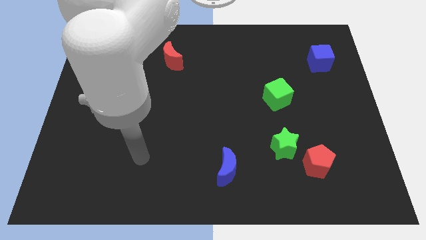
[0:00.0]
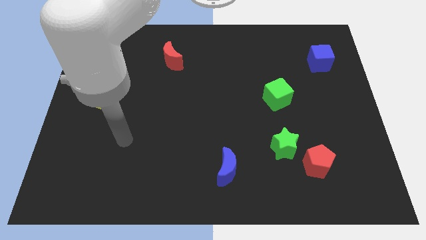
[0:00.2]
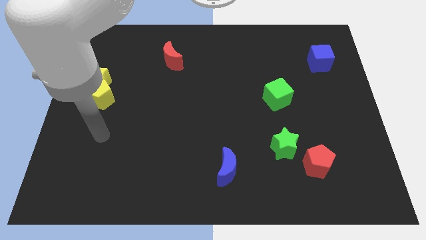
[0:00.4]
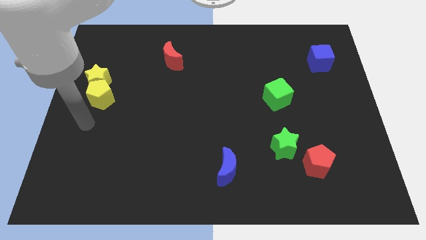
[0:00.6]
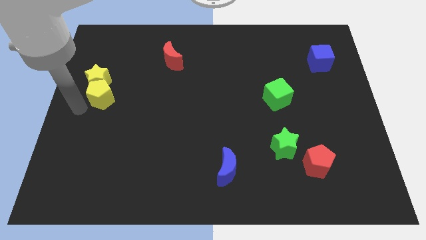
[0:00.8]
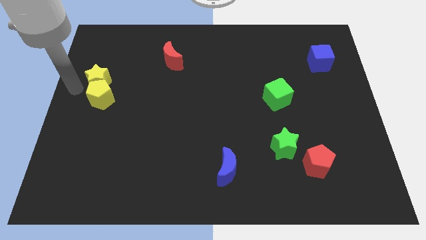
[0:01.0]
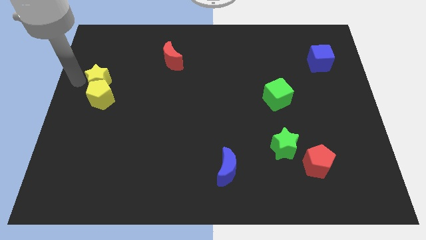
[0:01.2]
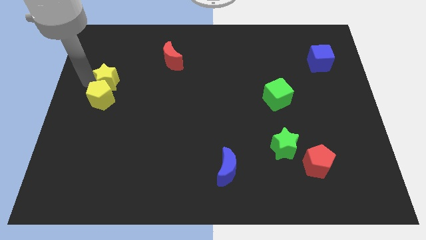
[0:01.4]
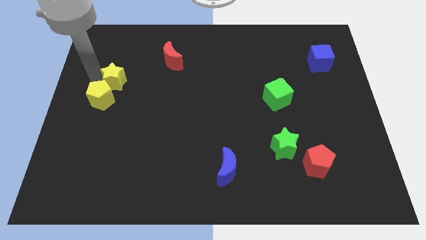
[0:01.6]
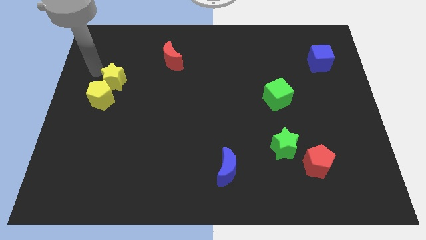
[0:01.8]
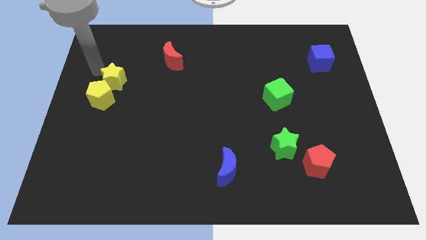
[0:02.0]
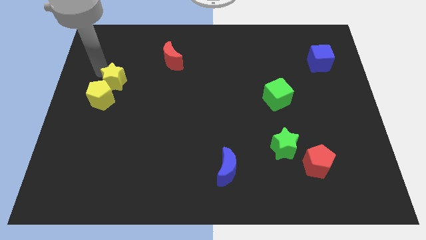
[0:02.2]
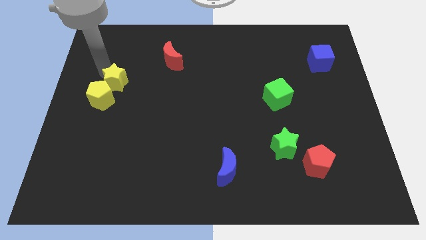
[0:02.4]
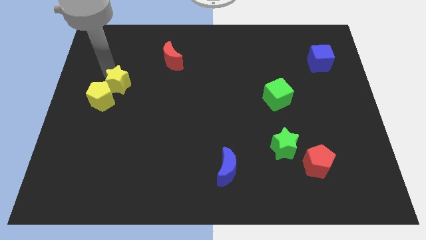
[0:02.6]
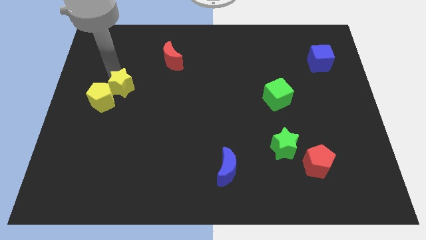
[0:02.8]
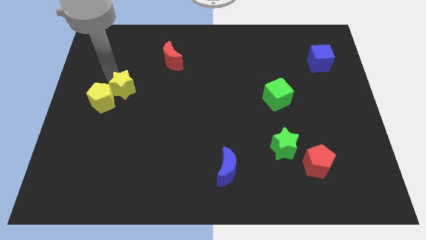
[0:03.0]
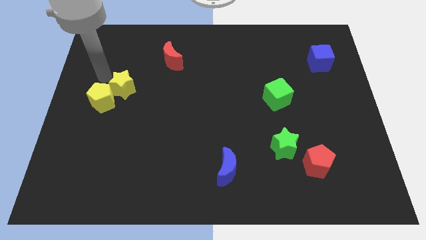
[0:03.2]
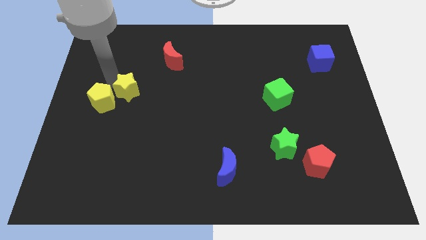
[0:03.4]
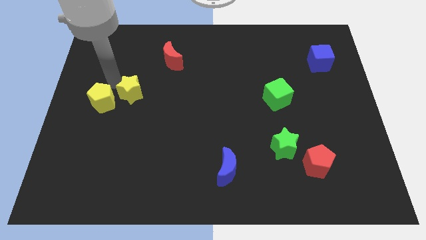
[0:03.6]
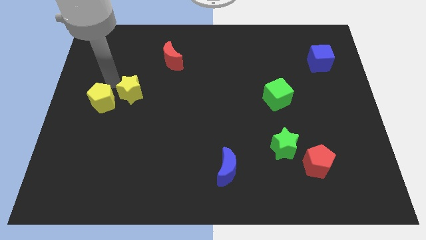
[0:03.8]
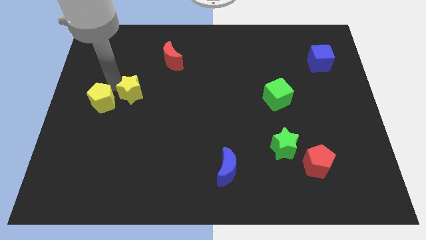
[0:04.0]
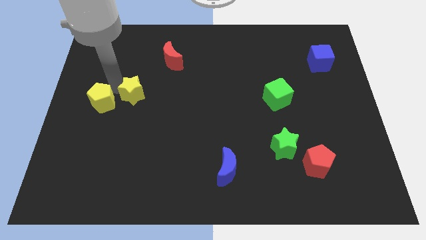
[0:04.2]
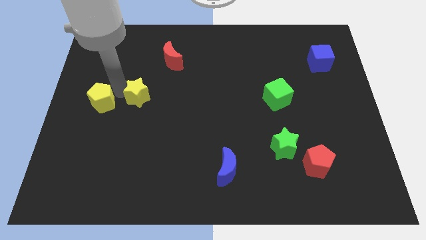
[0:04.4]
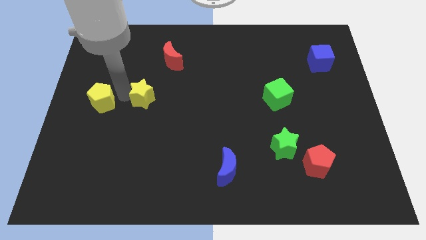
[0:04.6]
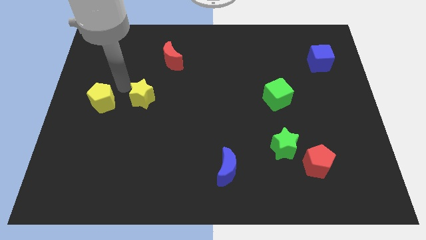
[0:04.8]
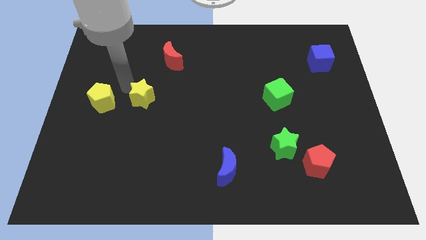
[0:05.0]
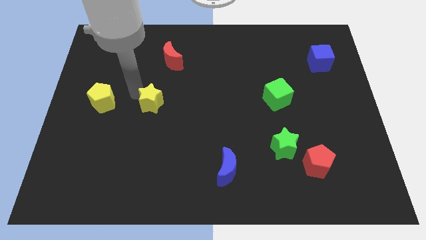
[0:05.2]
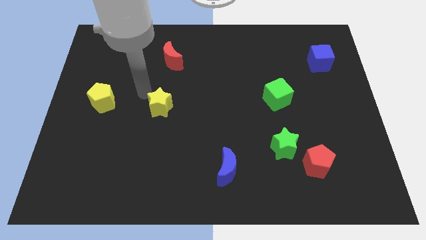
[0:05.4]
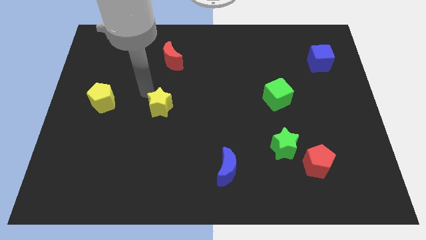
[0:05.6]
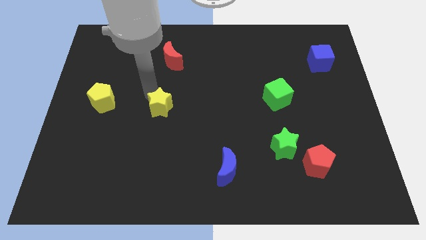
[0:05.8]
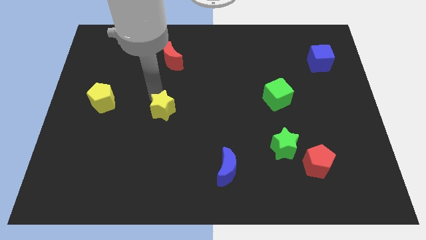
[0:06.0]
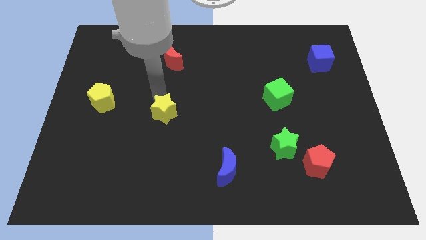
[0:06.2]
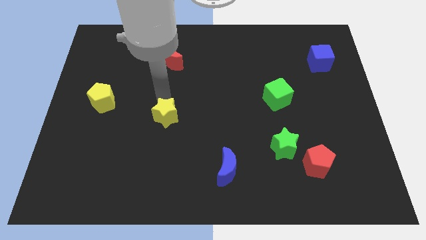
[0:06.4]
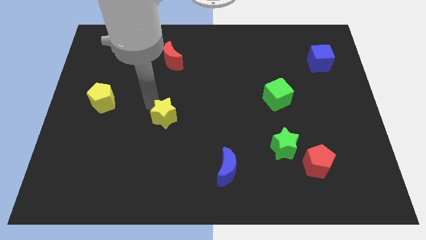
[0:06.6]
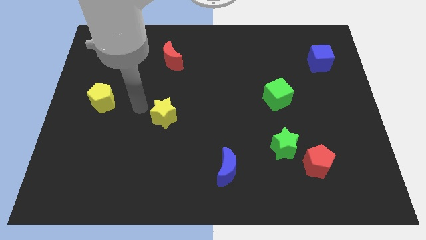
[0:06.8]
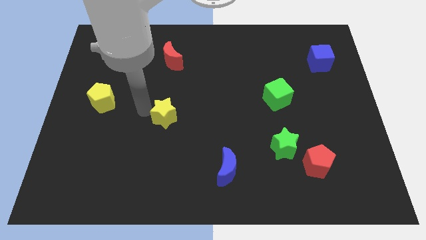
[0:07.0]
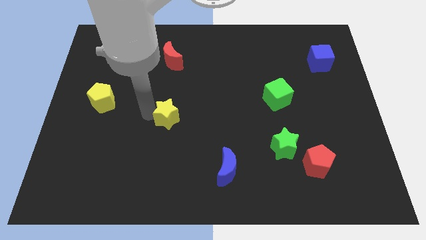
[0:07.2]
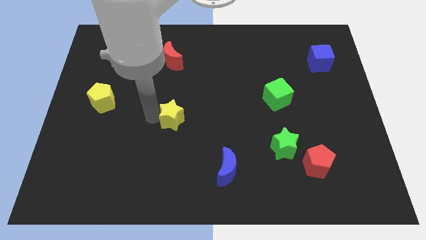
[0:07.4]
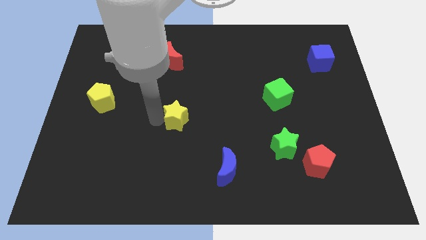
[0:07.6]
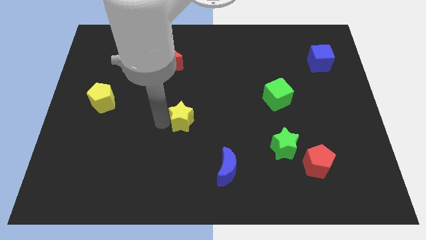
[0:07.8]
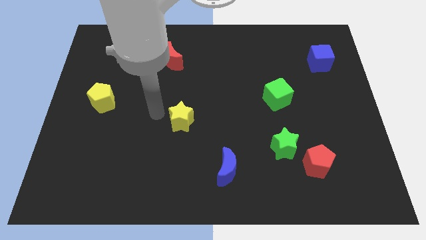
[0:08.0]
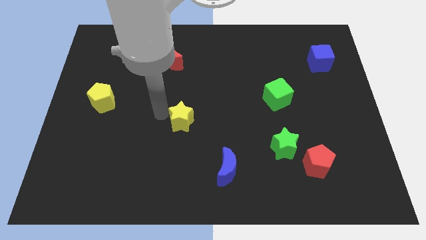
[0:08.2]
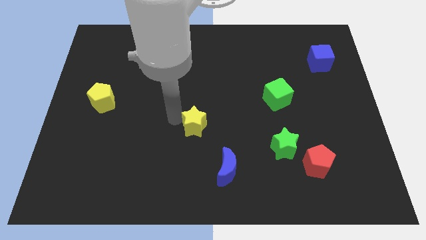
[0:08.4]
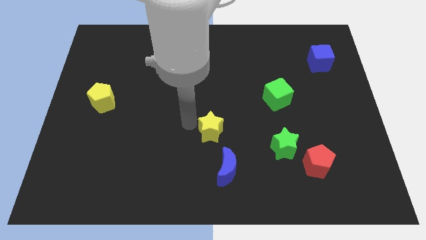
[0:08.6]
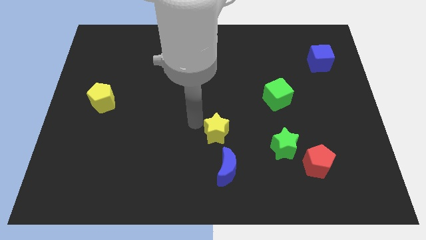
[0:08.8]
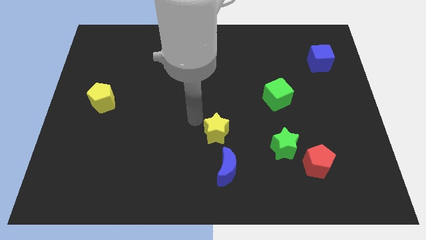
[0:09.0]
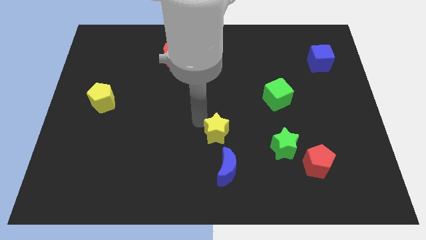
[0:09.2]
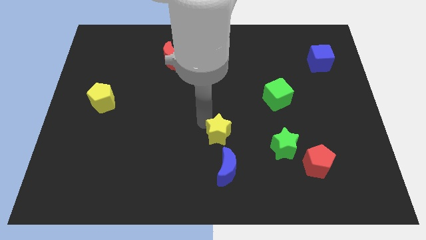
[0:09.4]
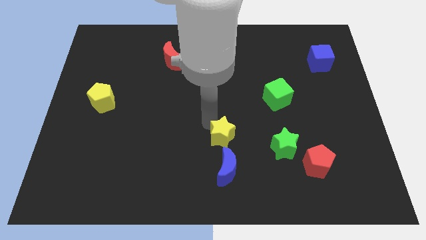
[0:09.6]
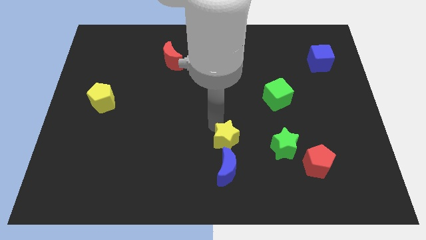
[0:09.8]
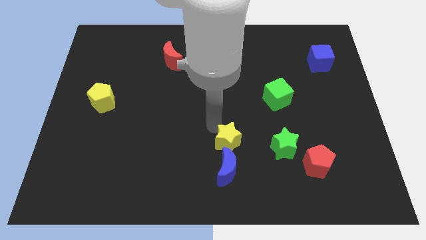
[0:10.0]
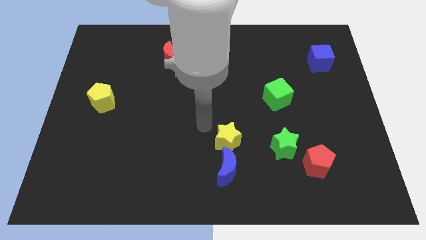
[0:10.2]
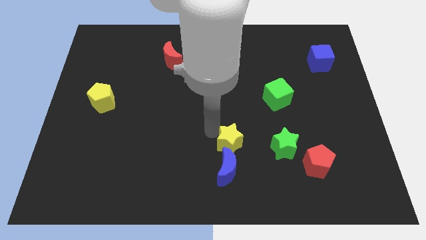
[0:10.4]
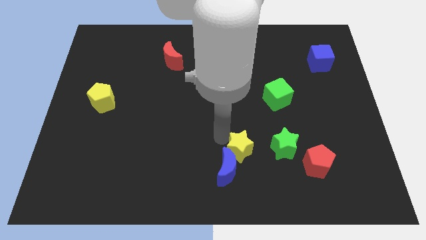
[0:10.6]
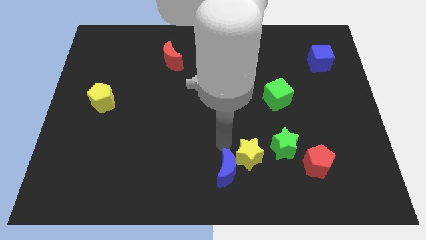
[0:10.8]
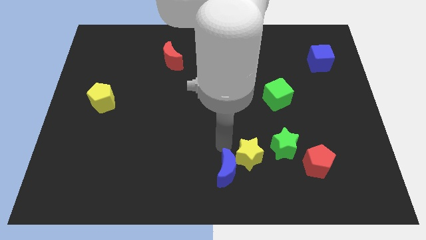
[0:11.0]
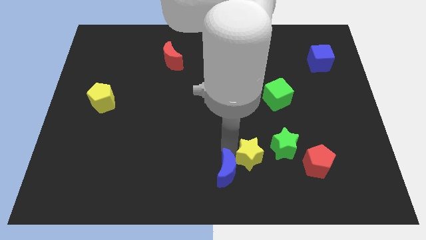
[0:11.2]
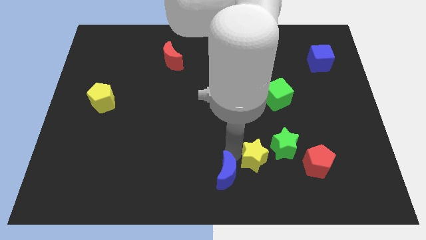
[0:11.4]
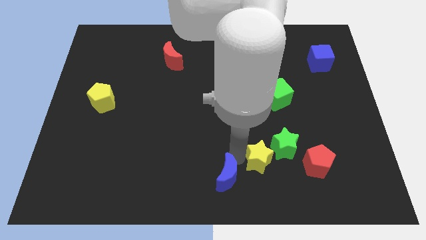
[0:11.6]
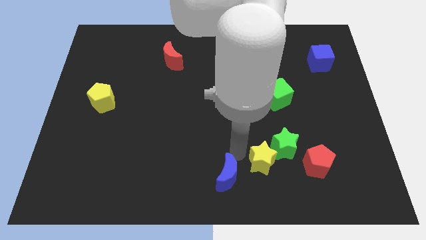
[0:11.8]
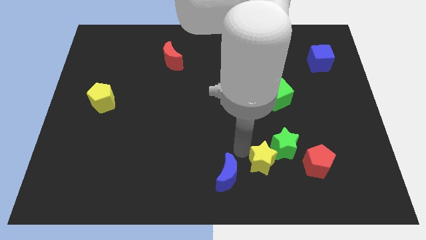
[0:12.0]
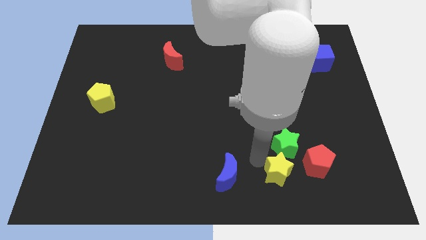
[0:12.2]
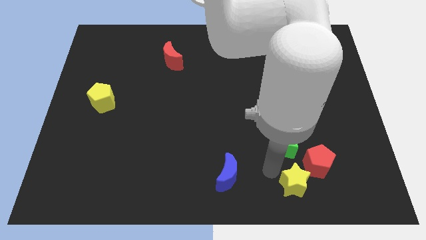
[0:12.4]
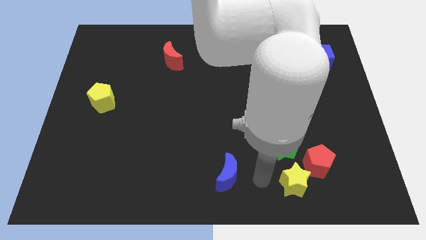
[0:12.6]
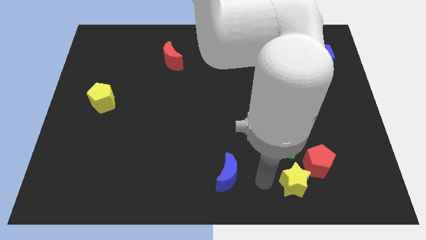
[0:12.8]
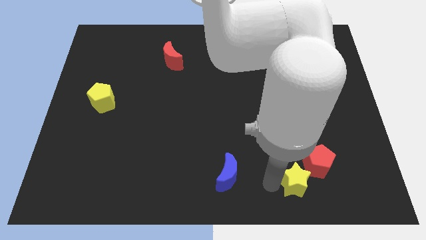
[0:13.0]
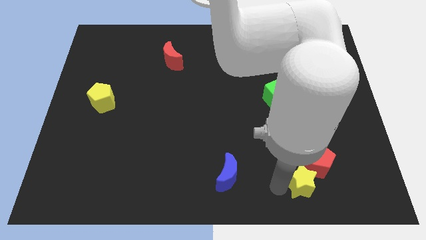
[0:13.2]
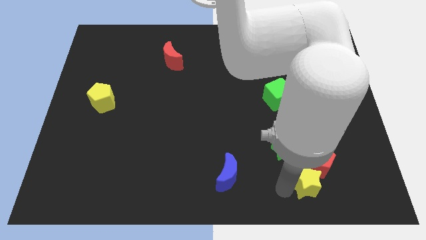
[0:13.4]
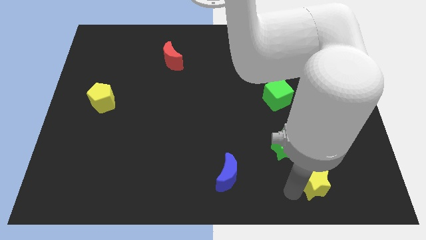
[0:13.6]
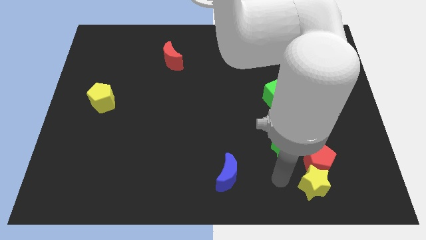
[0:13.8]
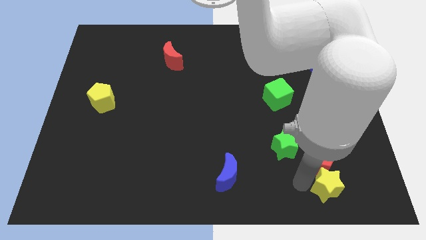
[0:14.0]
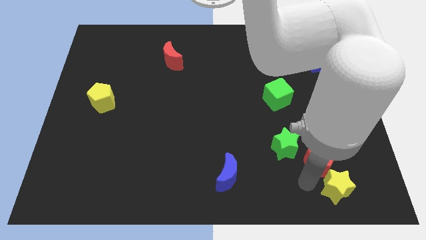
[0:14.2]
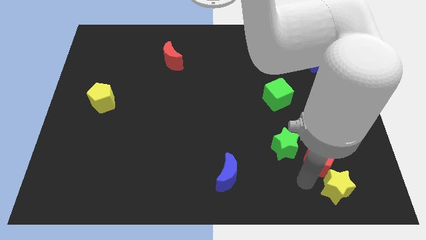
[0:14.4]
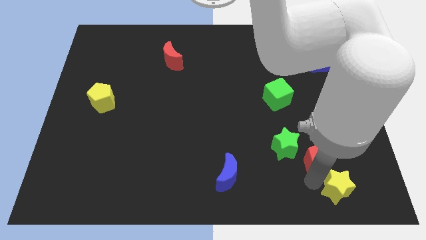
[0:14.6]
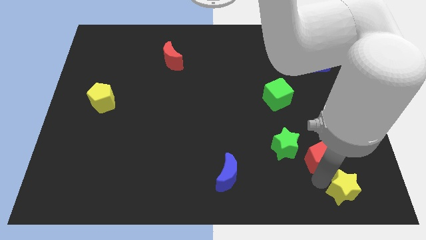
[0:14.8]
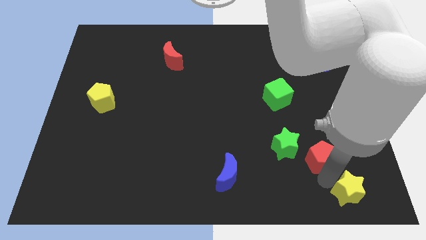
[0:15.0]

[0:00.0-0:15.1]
put the yellow star to the lower right corner
